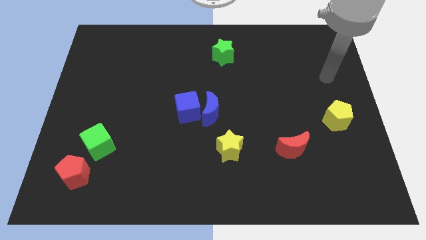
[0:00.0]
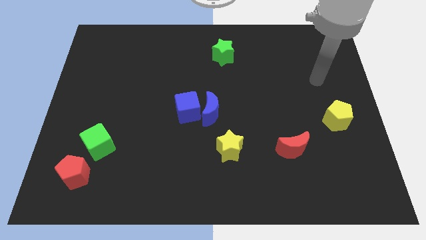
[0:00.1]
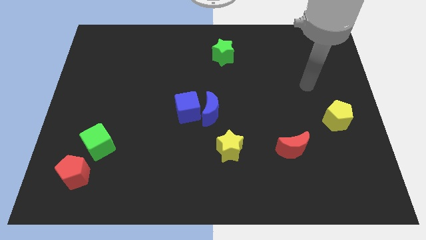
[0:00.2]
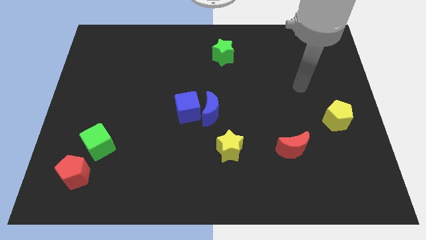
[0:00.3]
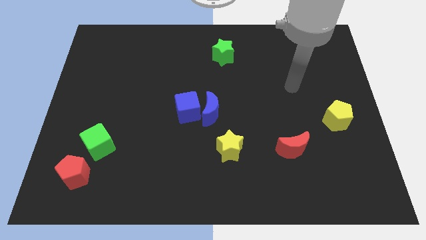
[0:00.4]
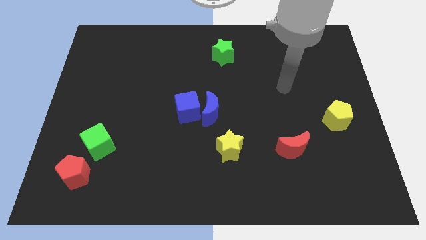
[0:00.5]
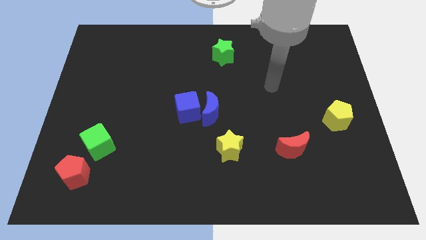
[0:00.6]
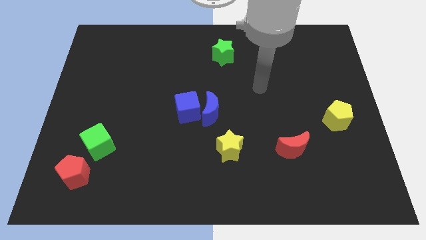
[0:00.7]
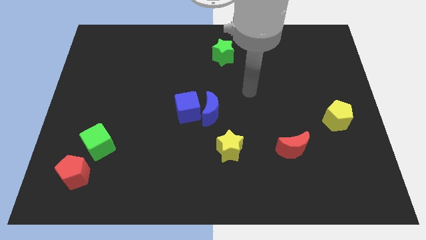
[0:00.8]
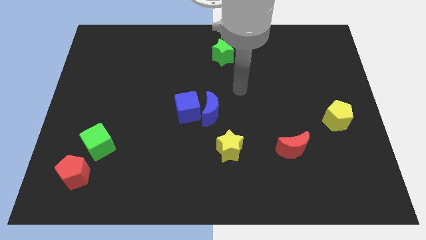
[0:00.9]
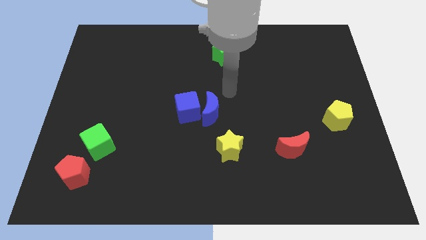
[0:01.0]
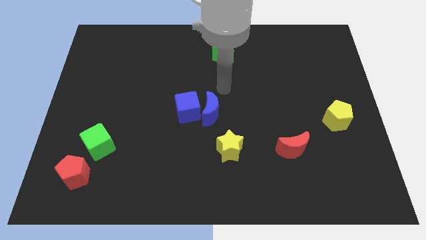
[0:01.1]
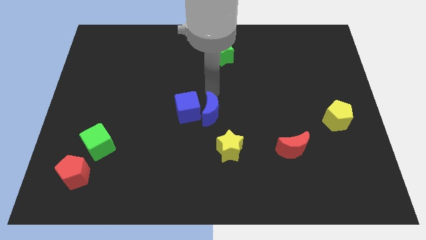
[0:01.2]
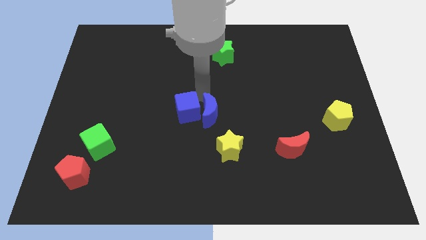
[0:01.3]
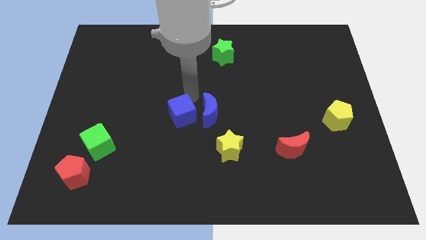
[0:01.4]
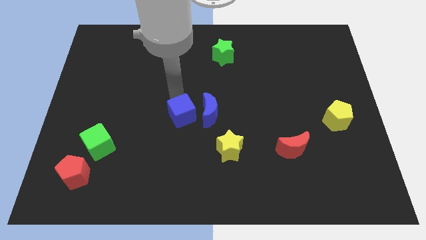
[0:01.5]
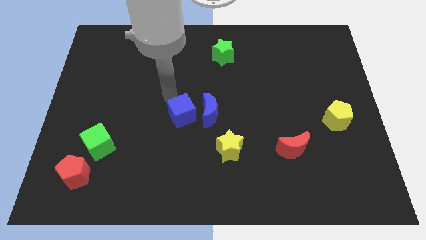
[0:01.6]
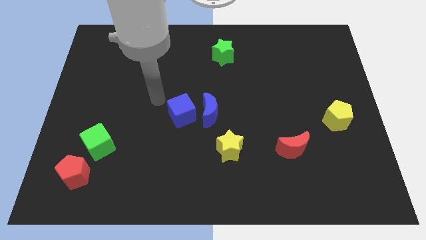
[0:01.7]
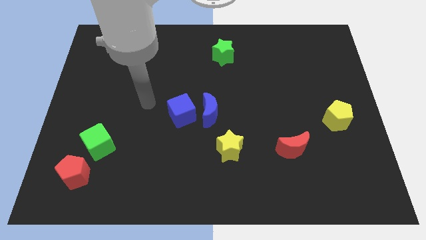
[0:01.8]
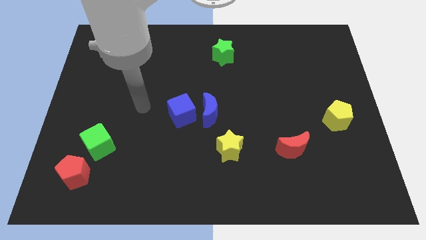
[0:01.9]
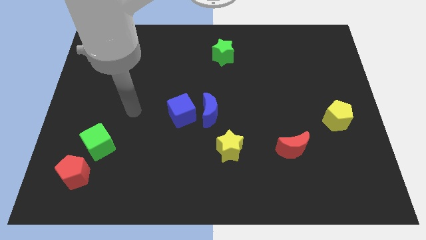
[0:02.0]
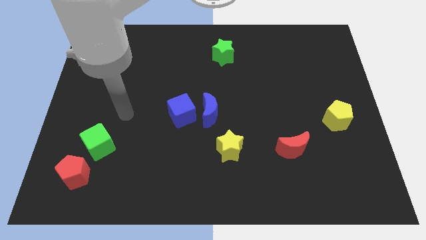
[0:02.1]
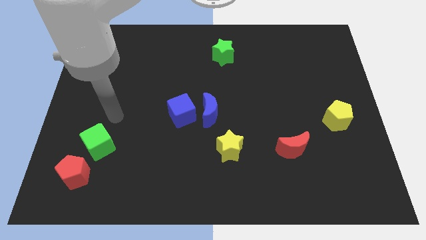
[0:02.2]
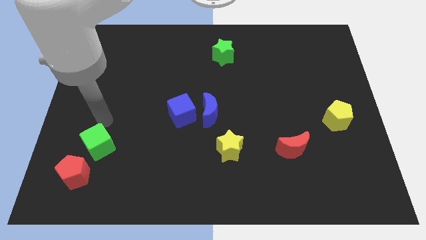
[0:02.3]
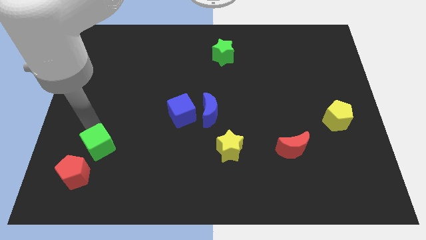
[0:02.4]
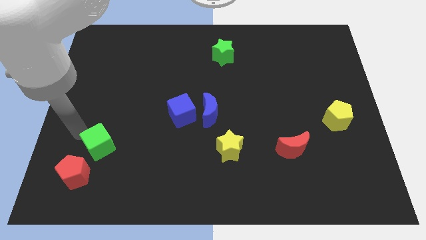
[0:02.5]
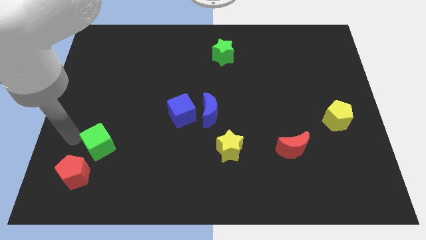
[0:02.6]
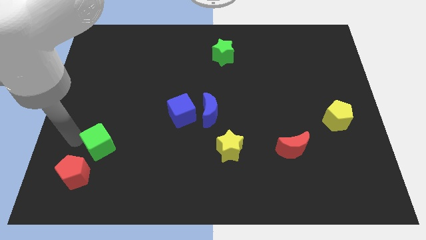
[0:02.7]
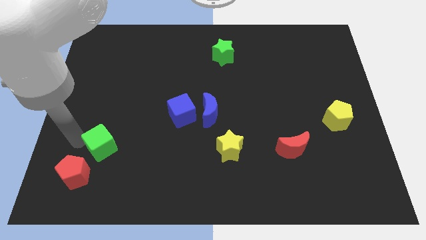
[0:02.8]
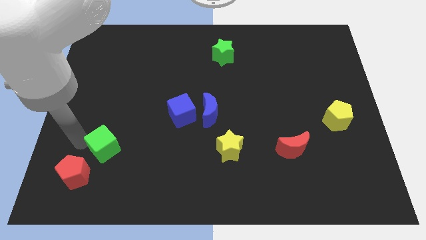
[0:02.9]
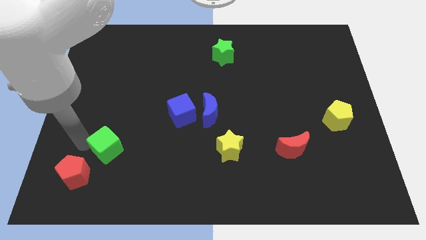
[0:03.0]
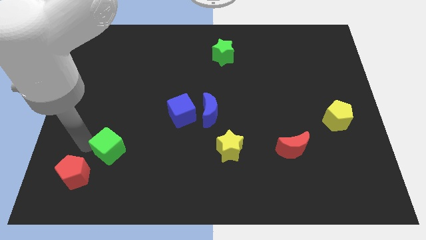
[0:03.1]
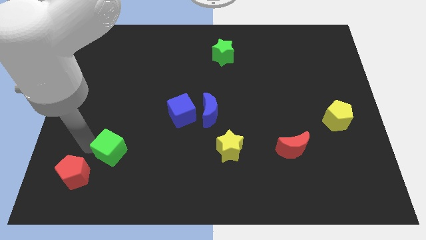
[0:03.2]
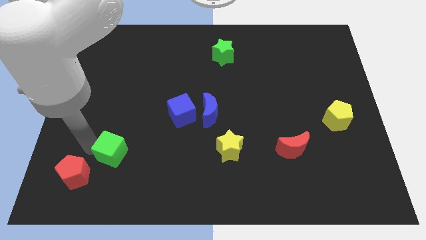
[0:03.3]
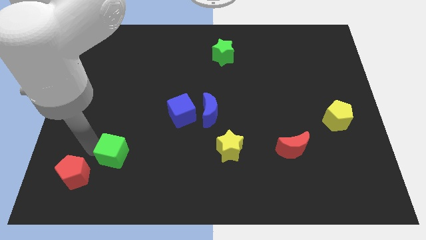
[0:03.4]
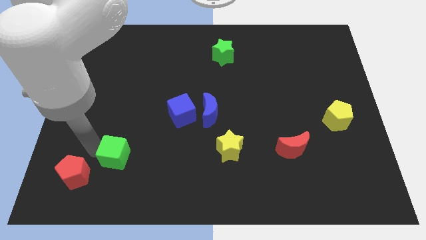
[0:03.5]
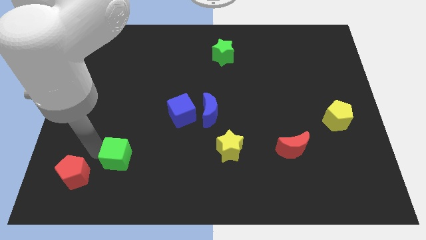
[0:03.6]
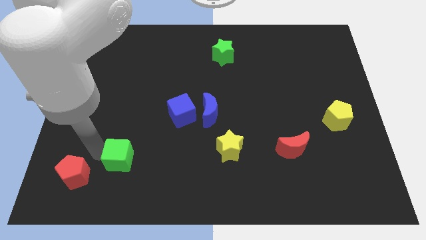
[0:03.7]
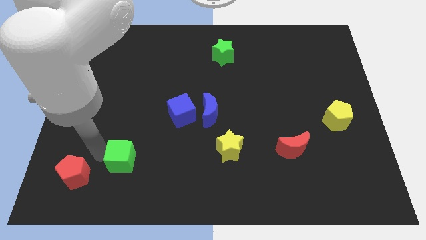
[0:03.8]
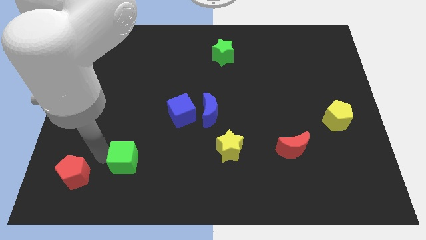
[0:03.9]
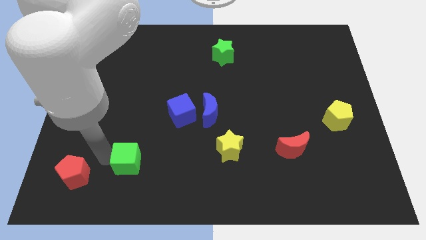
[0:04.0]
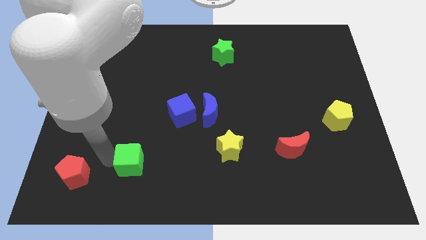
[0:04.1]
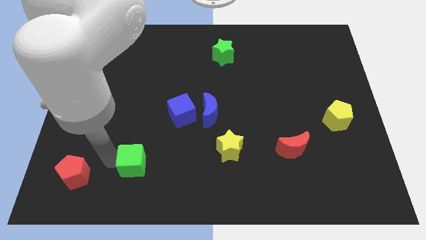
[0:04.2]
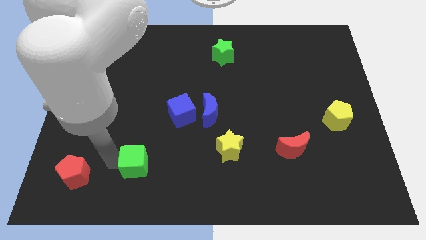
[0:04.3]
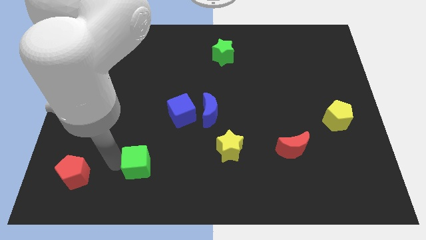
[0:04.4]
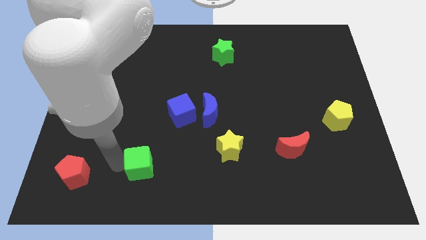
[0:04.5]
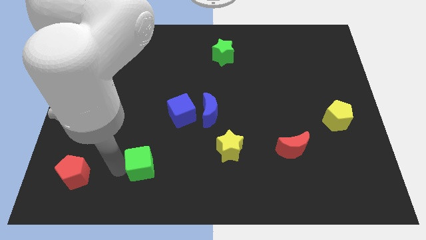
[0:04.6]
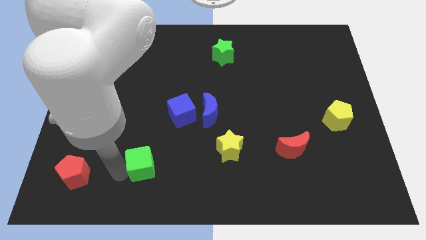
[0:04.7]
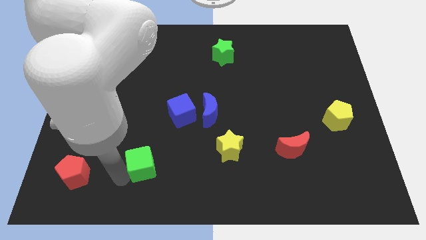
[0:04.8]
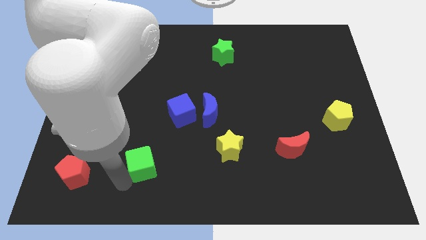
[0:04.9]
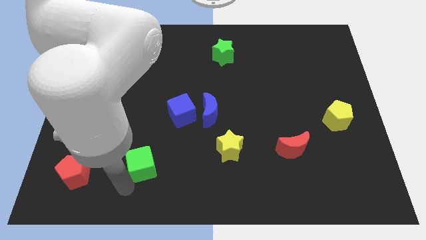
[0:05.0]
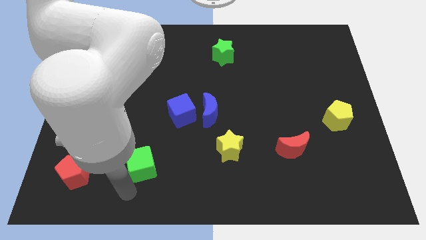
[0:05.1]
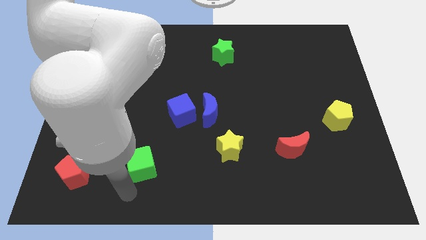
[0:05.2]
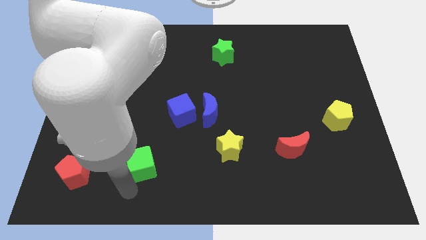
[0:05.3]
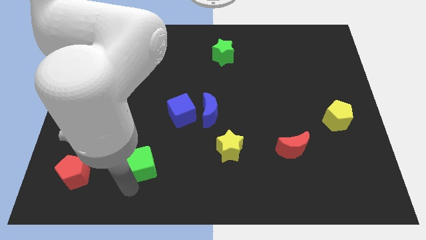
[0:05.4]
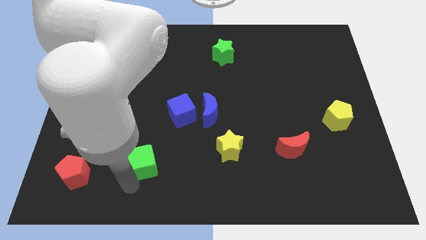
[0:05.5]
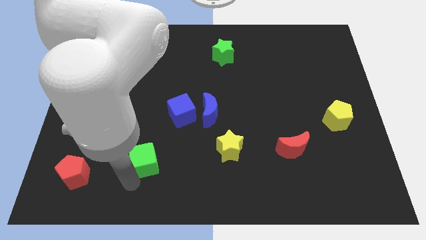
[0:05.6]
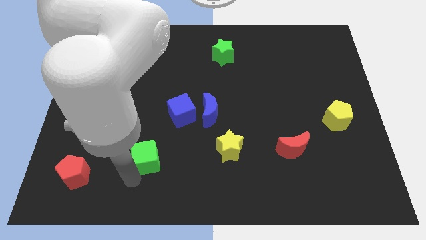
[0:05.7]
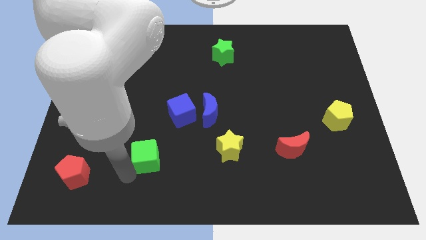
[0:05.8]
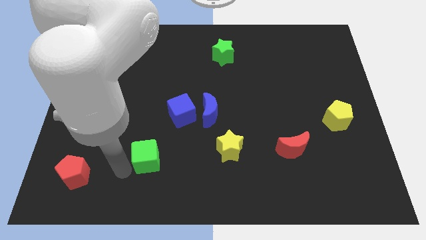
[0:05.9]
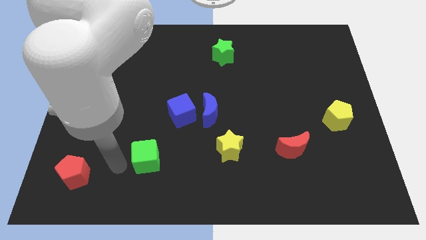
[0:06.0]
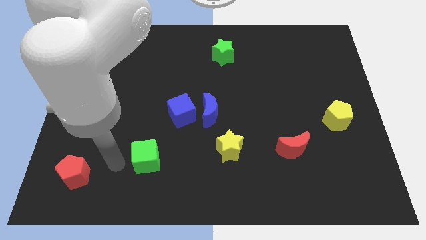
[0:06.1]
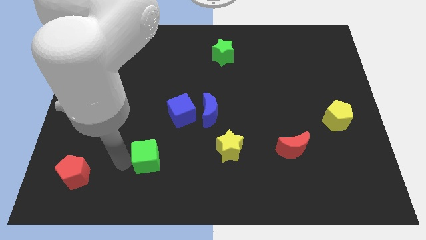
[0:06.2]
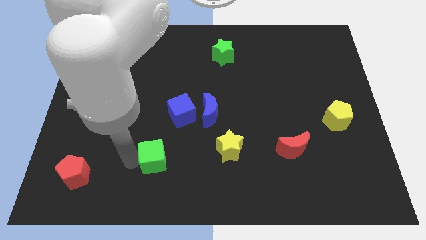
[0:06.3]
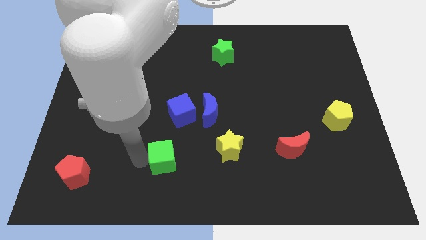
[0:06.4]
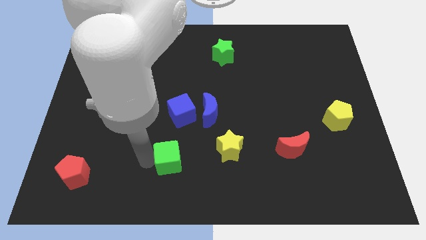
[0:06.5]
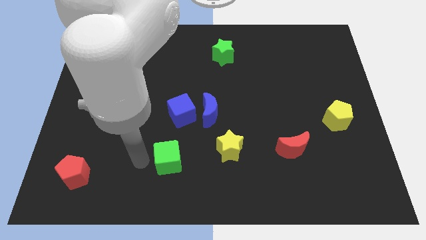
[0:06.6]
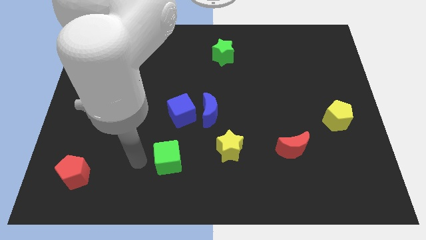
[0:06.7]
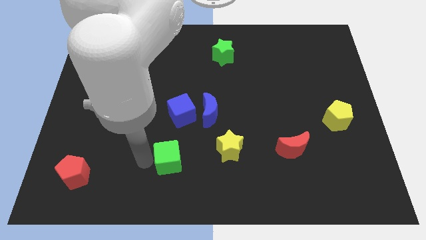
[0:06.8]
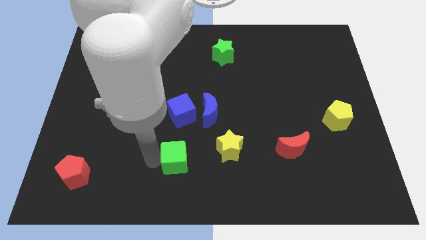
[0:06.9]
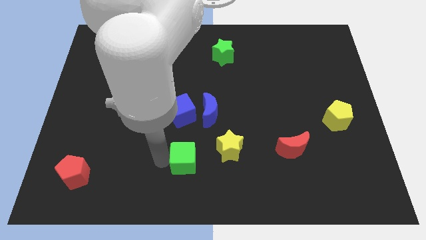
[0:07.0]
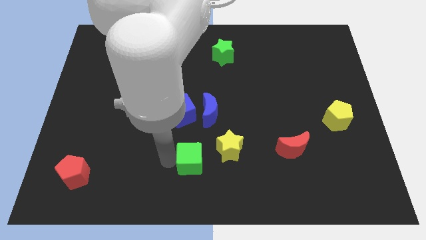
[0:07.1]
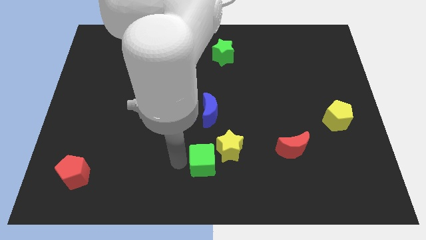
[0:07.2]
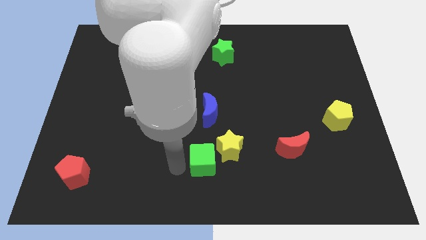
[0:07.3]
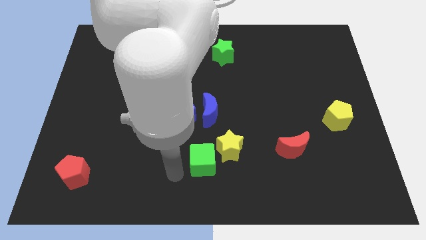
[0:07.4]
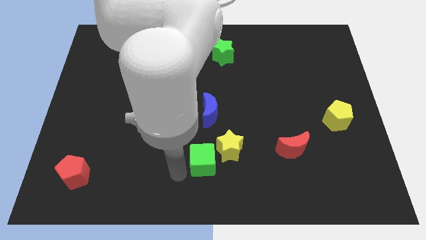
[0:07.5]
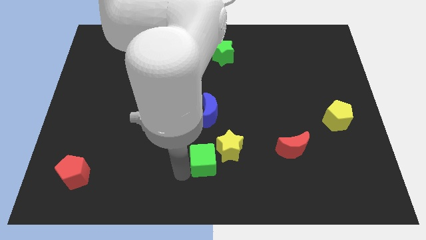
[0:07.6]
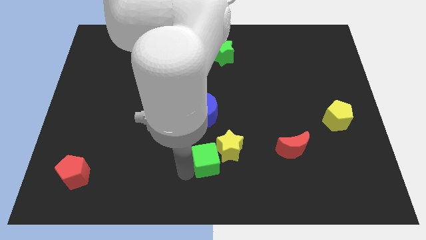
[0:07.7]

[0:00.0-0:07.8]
put the green cube towards the yellow star
